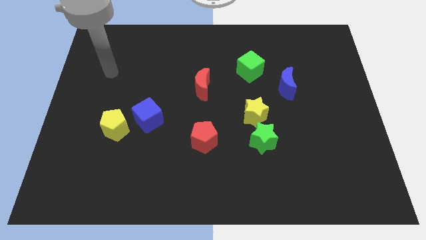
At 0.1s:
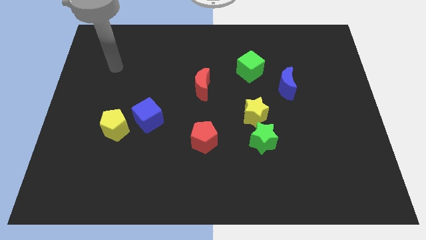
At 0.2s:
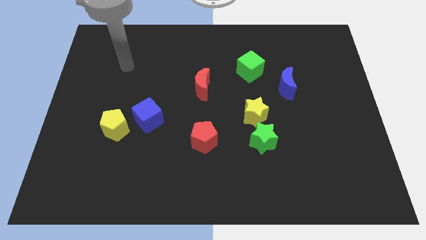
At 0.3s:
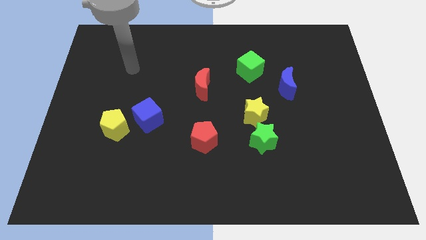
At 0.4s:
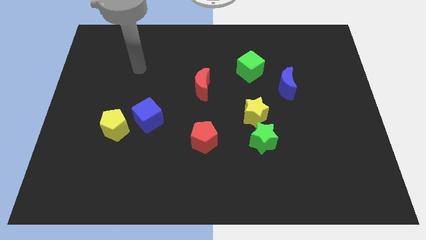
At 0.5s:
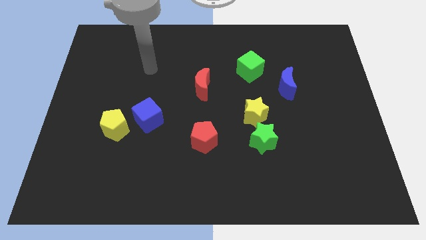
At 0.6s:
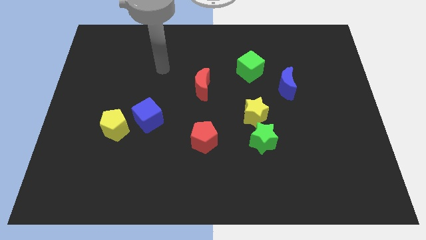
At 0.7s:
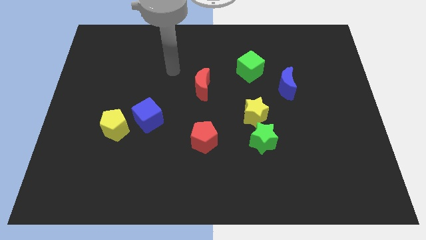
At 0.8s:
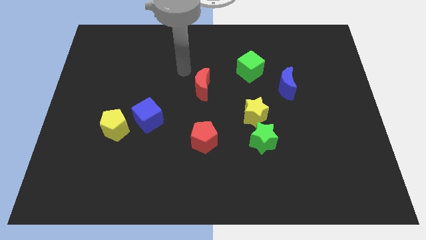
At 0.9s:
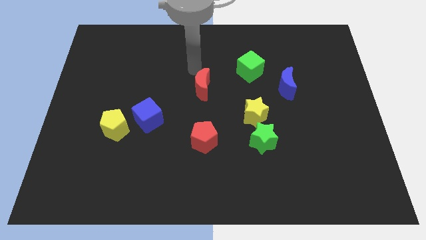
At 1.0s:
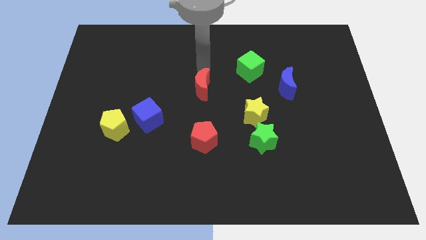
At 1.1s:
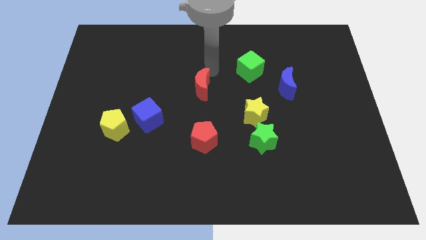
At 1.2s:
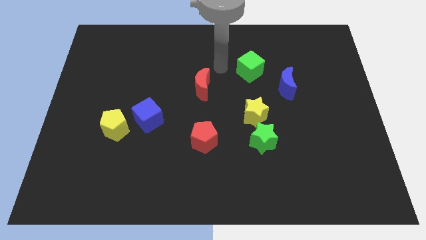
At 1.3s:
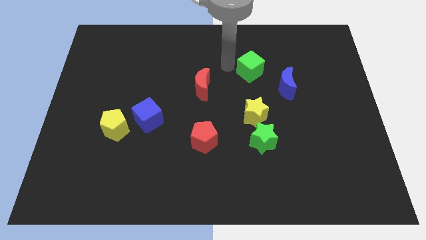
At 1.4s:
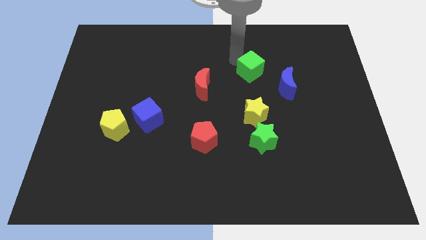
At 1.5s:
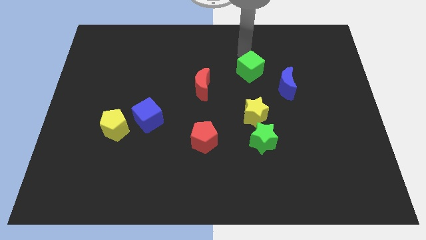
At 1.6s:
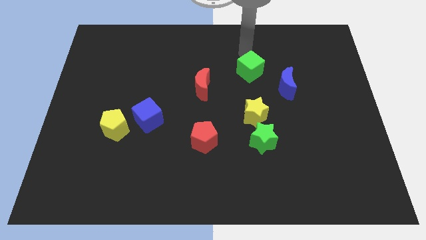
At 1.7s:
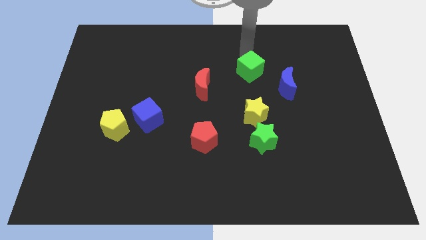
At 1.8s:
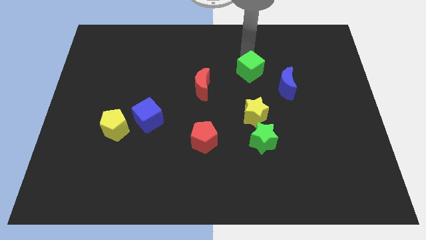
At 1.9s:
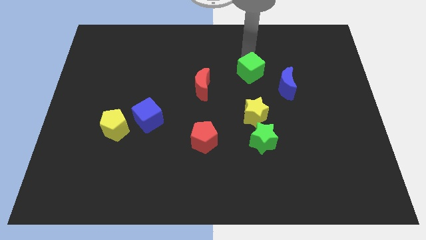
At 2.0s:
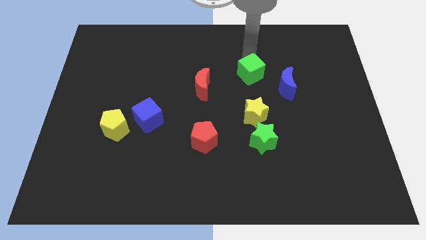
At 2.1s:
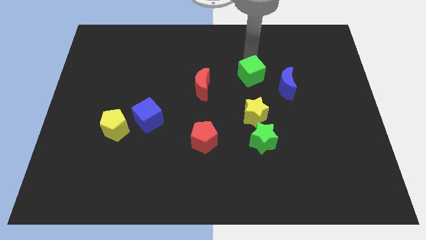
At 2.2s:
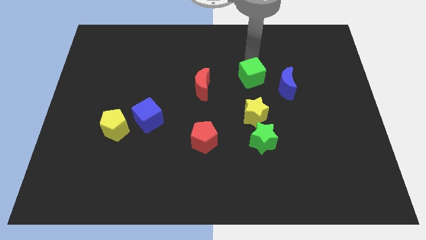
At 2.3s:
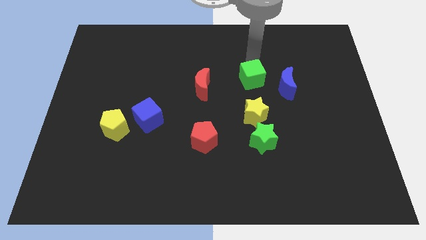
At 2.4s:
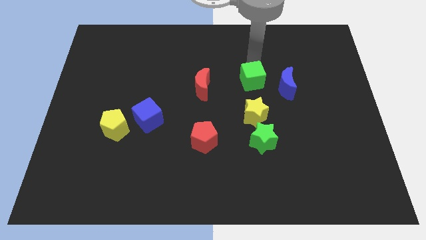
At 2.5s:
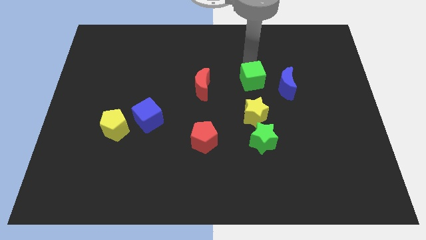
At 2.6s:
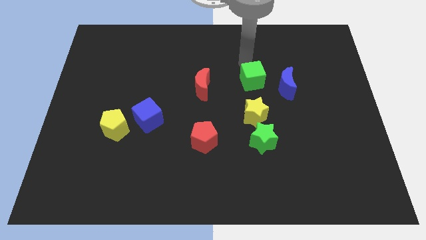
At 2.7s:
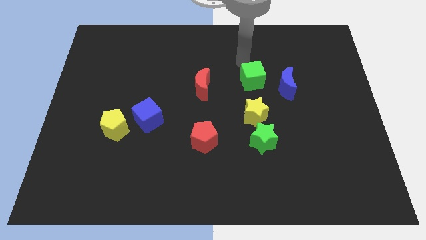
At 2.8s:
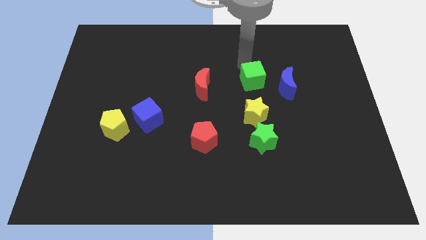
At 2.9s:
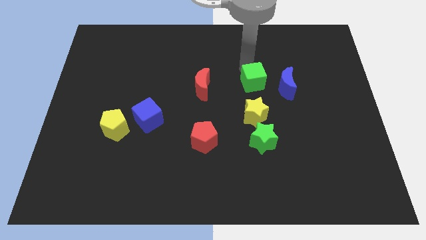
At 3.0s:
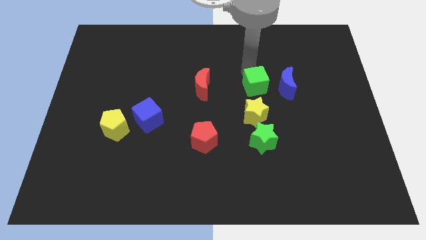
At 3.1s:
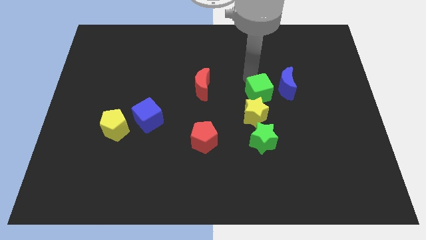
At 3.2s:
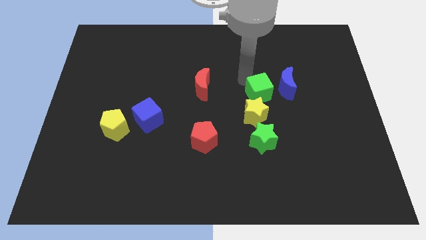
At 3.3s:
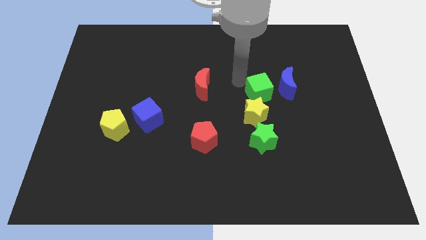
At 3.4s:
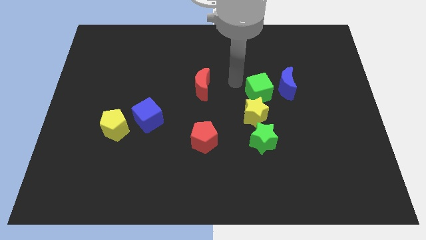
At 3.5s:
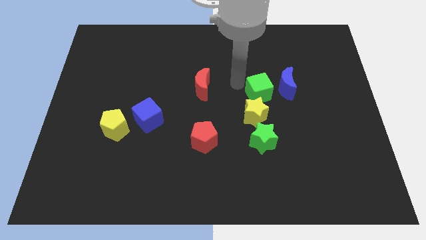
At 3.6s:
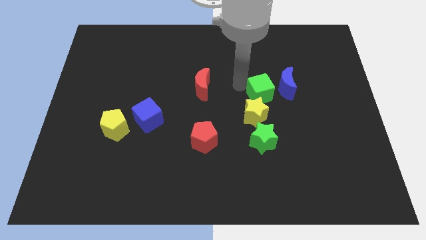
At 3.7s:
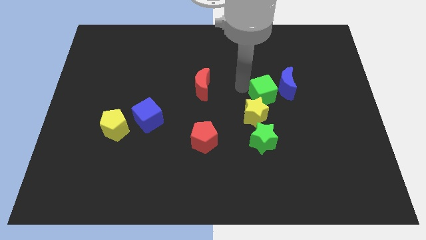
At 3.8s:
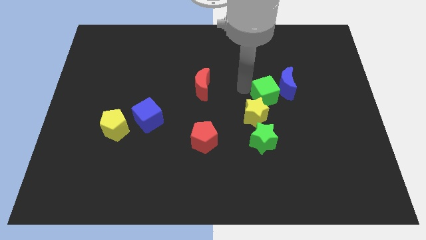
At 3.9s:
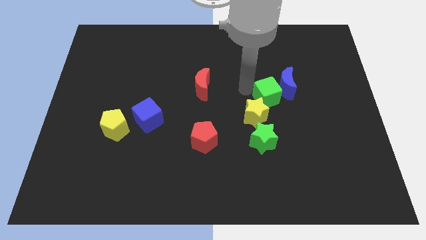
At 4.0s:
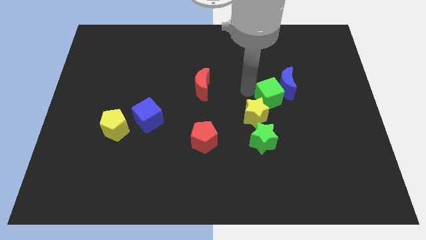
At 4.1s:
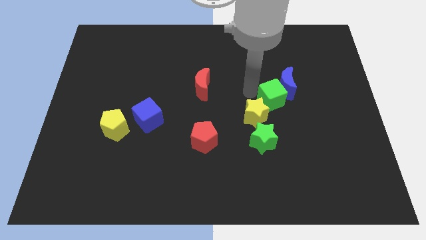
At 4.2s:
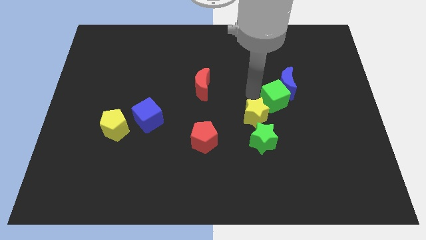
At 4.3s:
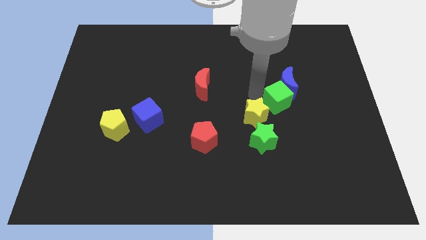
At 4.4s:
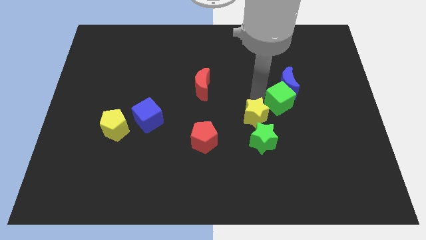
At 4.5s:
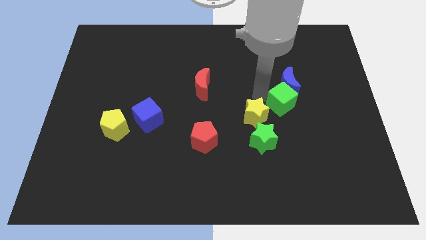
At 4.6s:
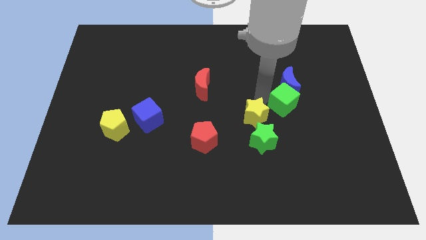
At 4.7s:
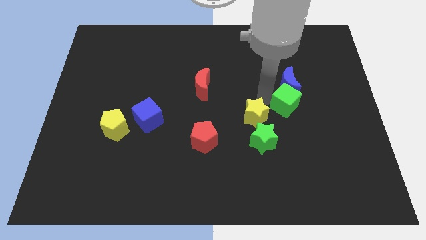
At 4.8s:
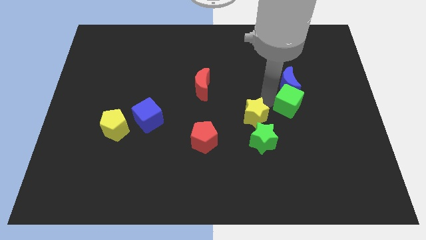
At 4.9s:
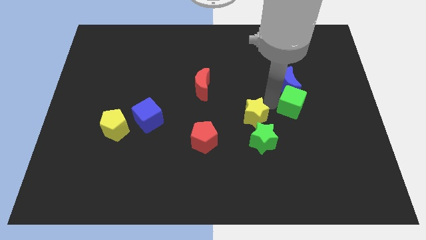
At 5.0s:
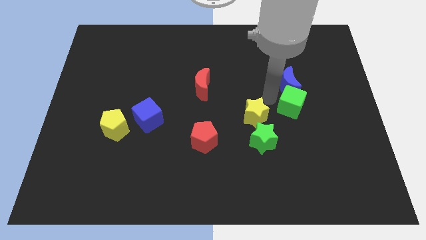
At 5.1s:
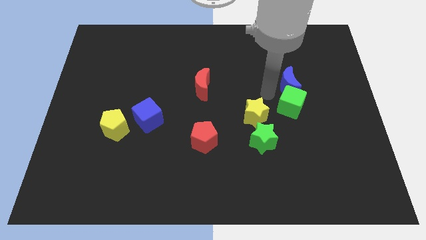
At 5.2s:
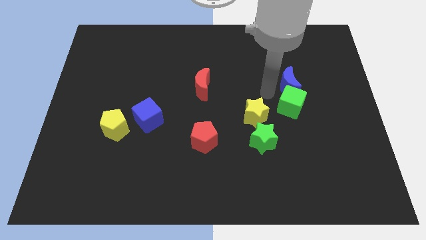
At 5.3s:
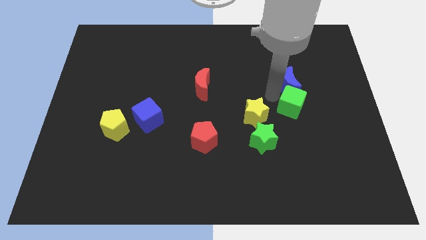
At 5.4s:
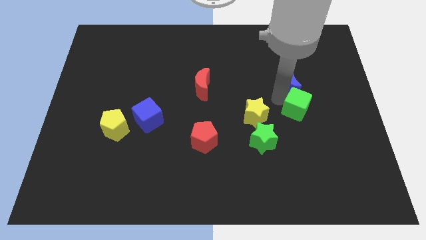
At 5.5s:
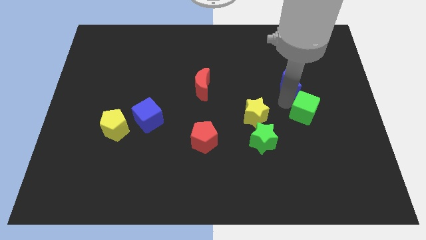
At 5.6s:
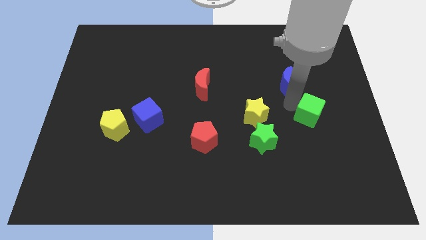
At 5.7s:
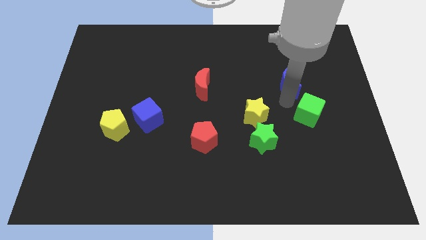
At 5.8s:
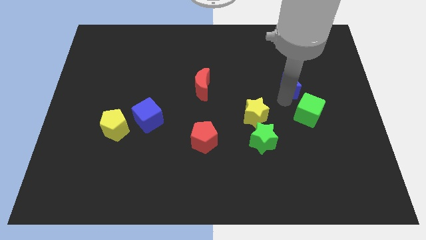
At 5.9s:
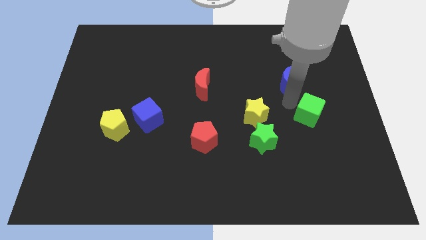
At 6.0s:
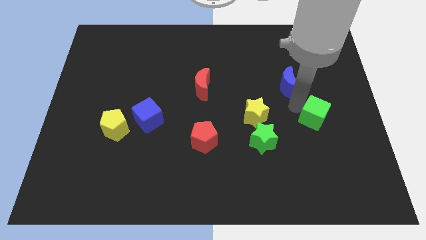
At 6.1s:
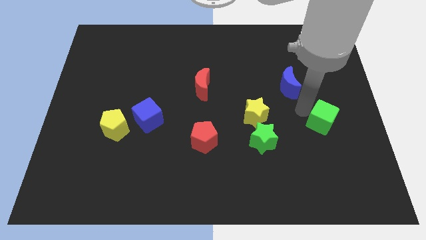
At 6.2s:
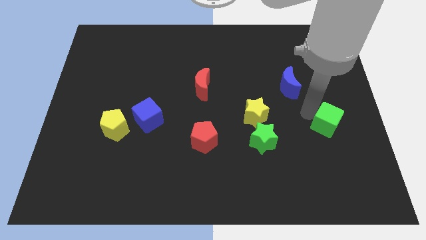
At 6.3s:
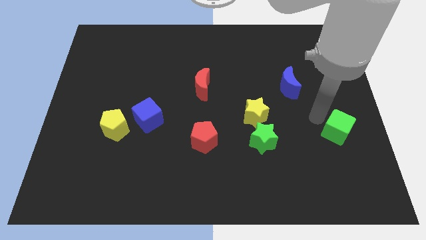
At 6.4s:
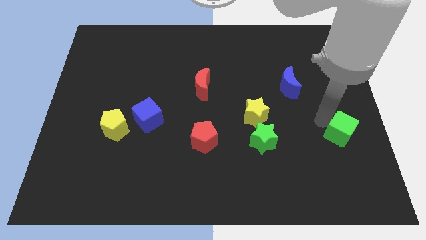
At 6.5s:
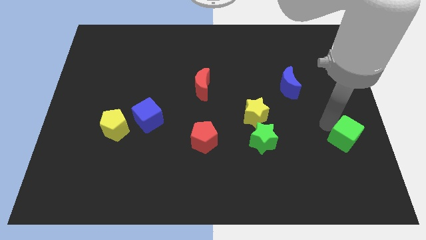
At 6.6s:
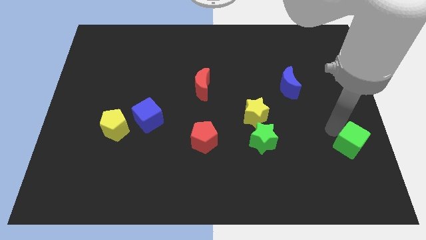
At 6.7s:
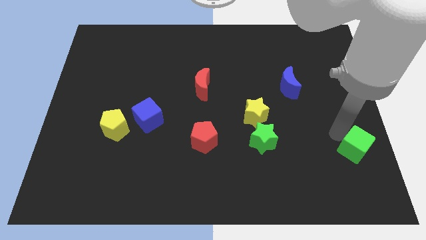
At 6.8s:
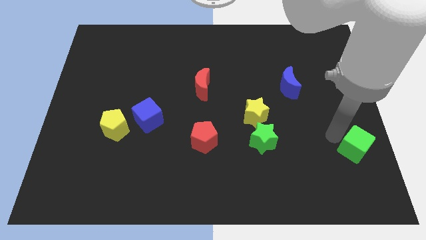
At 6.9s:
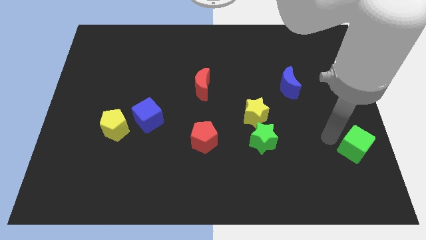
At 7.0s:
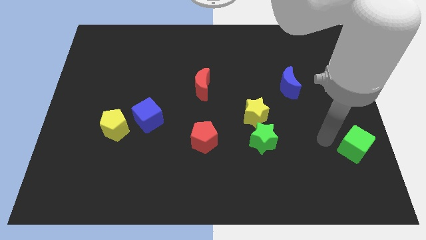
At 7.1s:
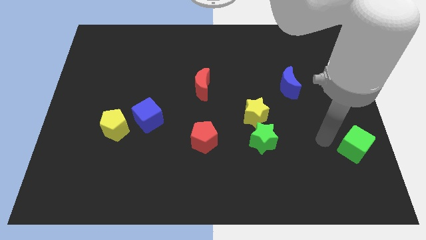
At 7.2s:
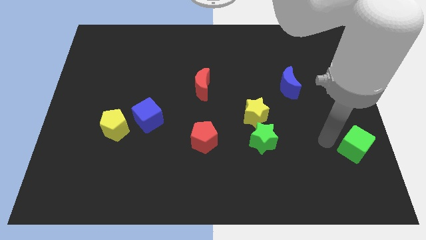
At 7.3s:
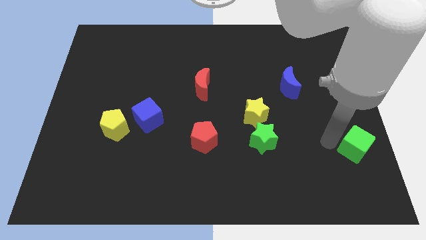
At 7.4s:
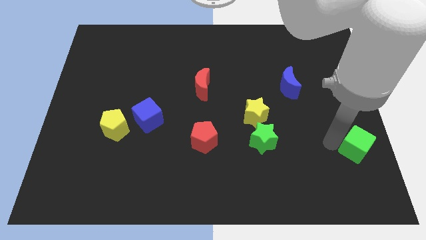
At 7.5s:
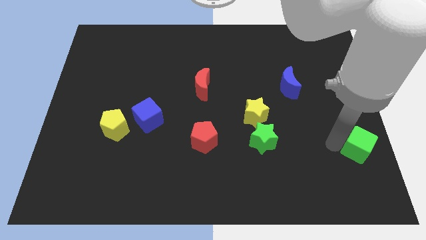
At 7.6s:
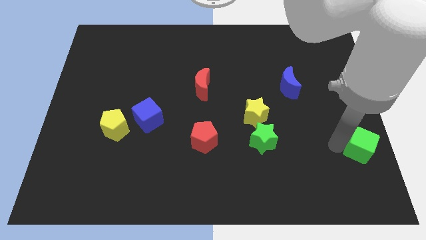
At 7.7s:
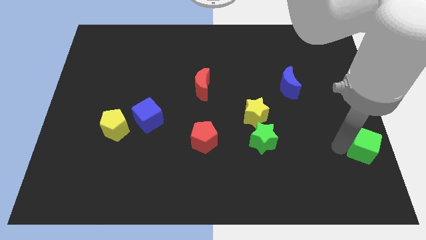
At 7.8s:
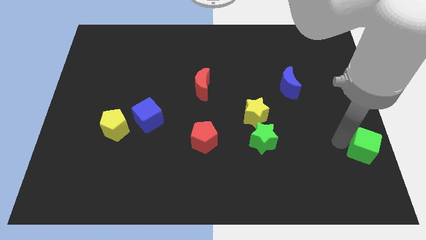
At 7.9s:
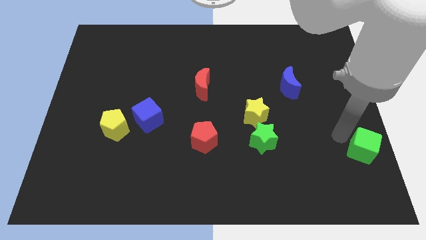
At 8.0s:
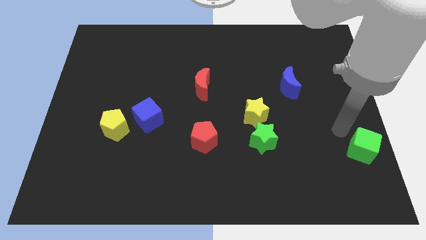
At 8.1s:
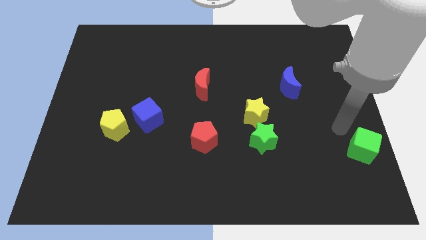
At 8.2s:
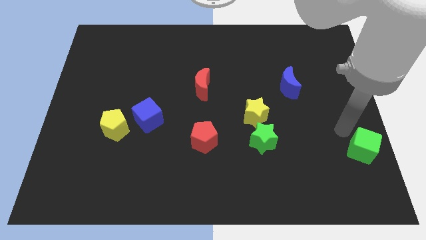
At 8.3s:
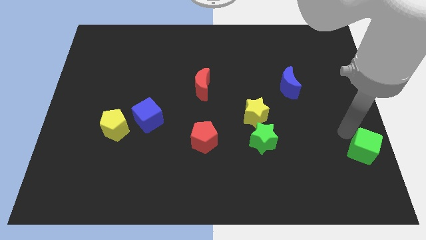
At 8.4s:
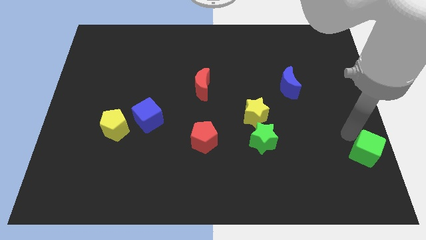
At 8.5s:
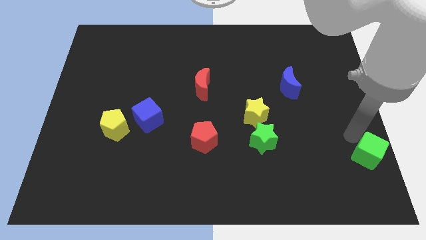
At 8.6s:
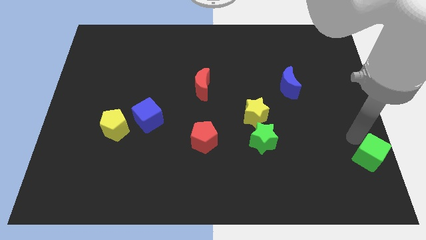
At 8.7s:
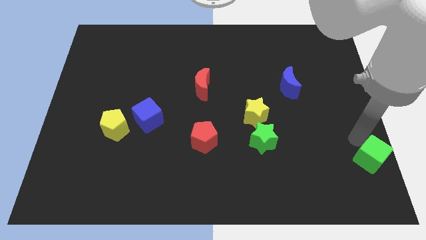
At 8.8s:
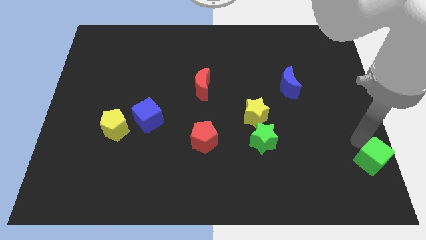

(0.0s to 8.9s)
slide the green cube to the bottom right
